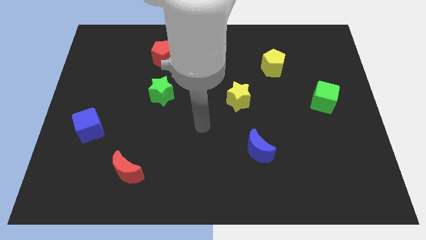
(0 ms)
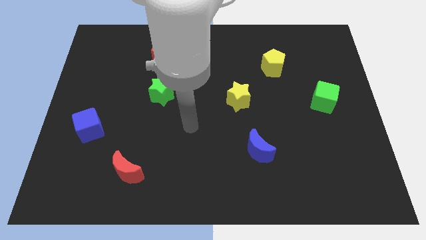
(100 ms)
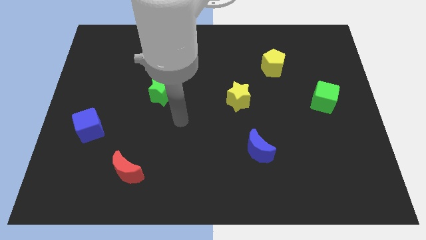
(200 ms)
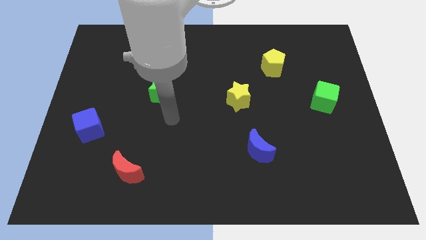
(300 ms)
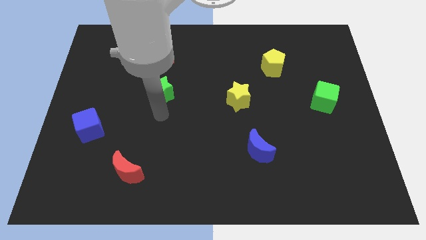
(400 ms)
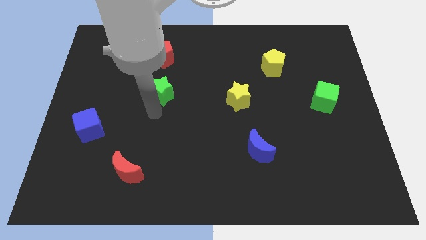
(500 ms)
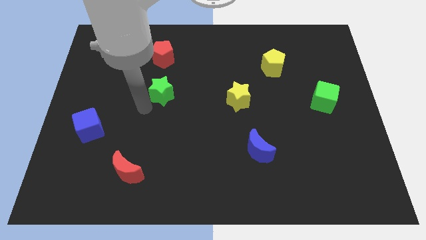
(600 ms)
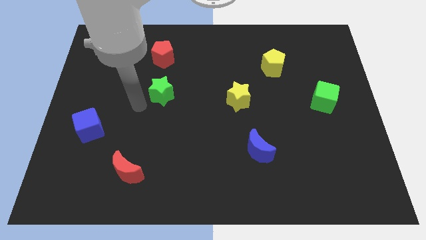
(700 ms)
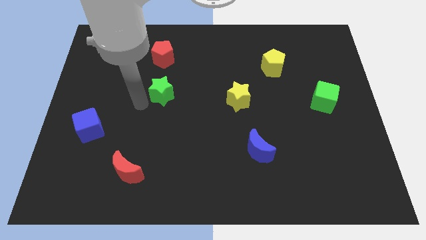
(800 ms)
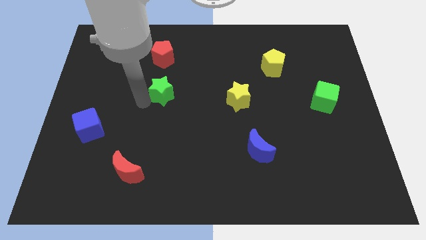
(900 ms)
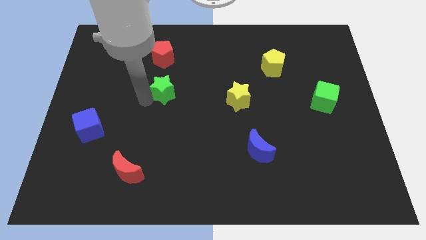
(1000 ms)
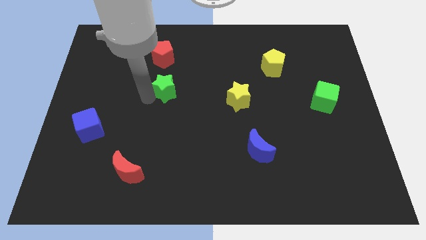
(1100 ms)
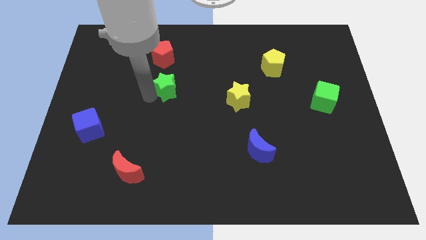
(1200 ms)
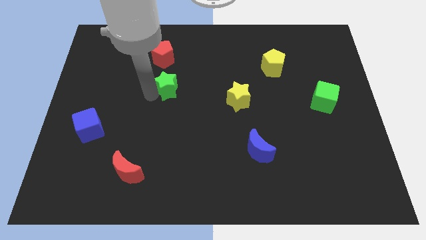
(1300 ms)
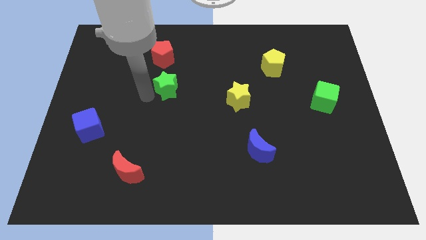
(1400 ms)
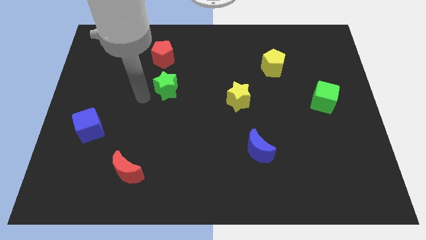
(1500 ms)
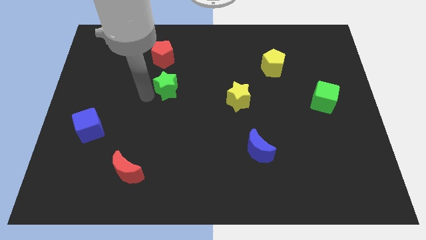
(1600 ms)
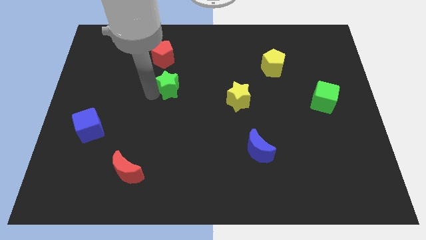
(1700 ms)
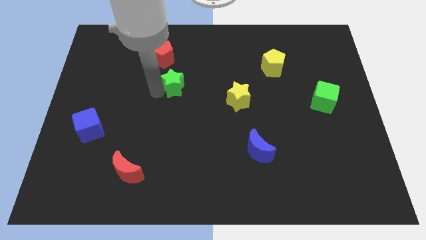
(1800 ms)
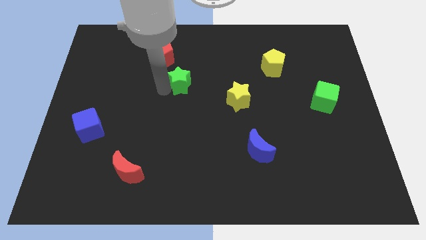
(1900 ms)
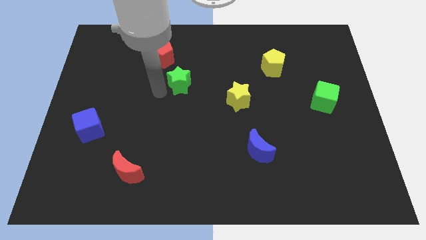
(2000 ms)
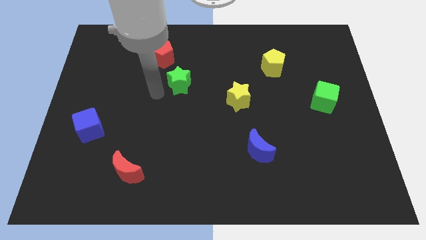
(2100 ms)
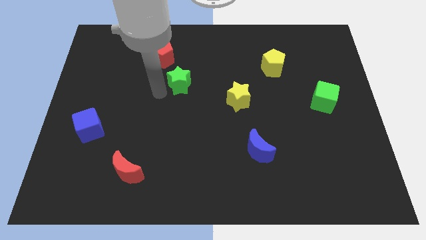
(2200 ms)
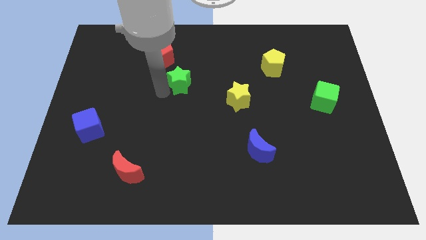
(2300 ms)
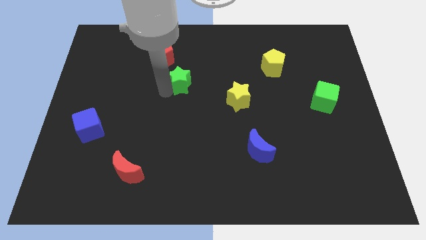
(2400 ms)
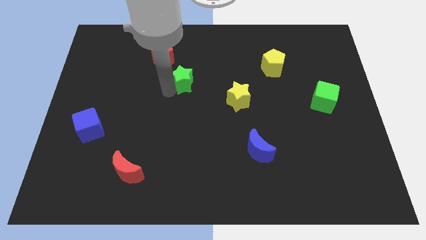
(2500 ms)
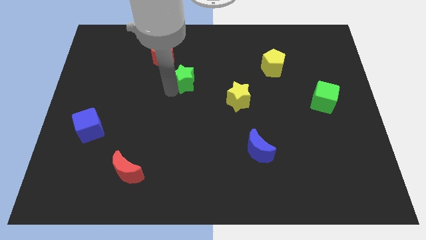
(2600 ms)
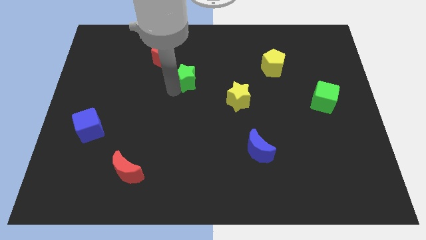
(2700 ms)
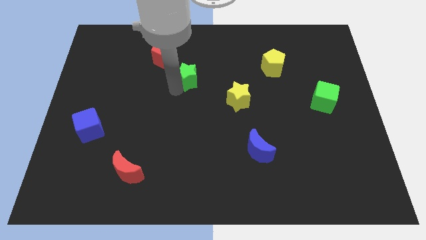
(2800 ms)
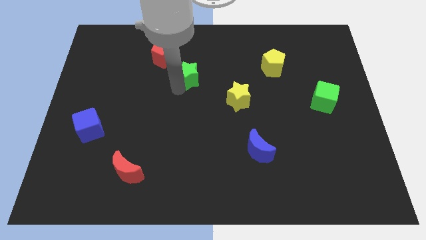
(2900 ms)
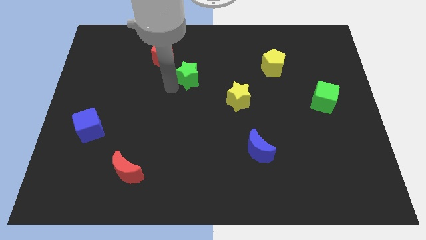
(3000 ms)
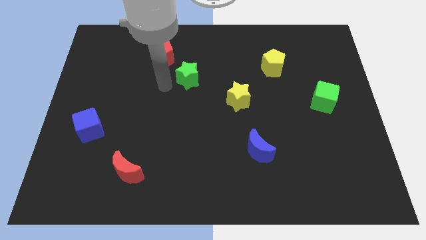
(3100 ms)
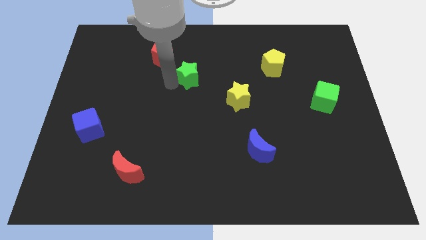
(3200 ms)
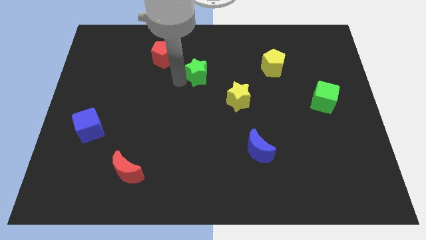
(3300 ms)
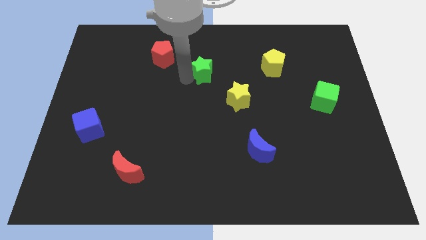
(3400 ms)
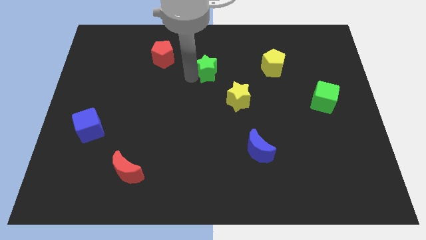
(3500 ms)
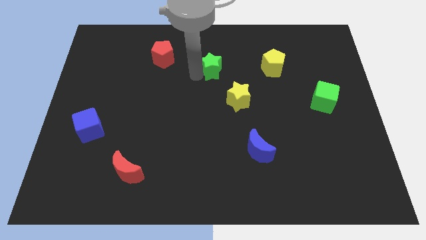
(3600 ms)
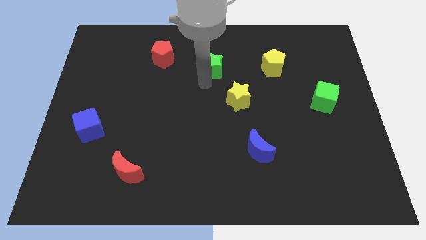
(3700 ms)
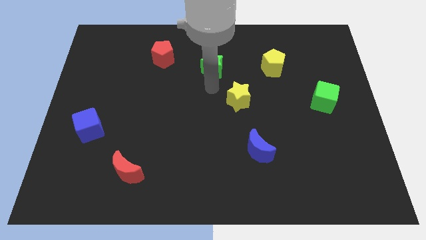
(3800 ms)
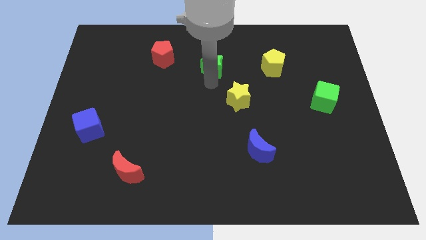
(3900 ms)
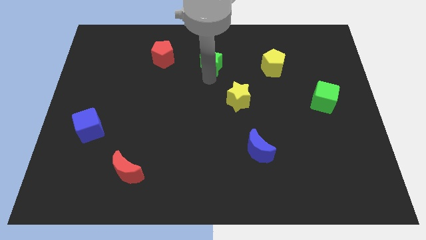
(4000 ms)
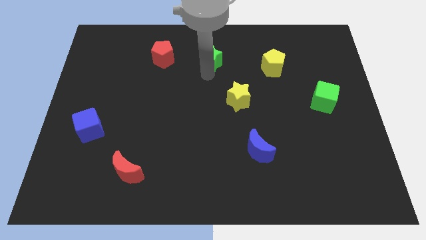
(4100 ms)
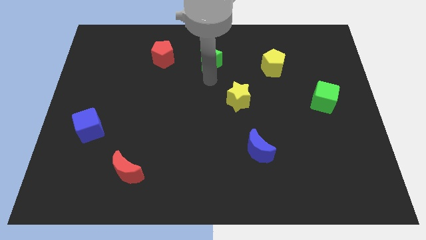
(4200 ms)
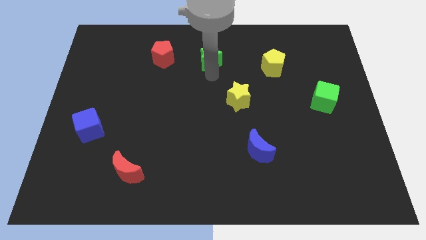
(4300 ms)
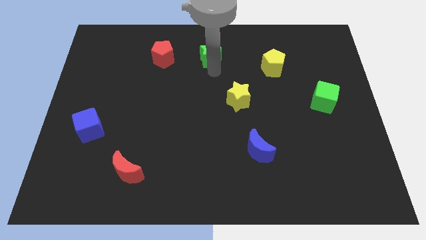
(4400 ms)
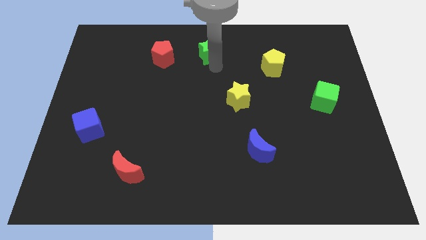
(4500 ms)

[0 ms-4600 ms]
move the green star to the top side

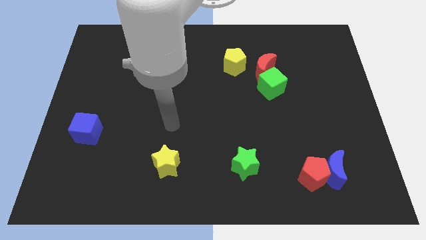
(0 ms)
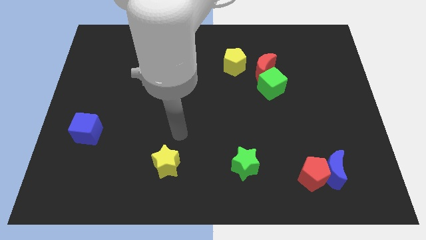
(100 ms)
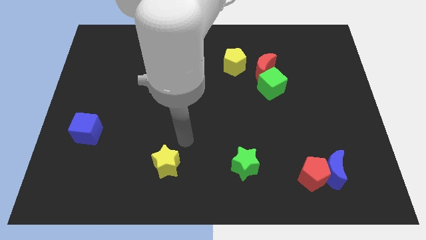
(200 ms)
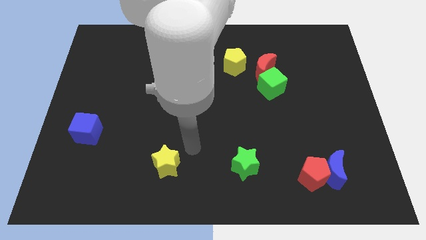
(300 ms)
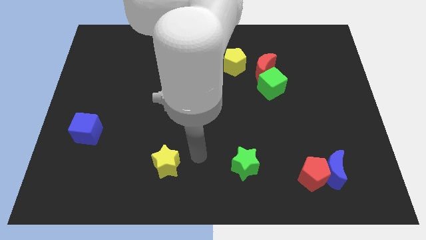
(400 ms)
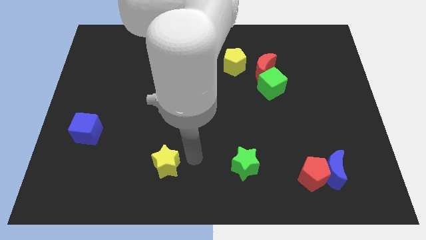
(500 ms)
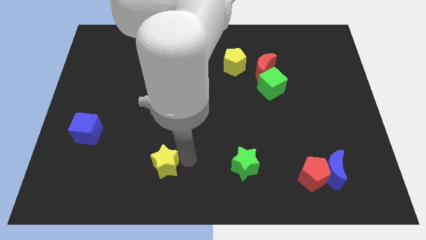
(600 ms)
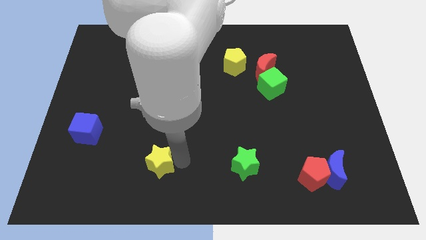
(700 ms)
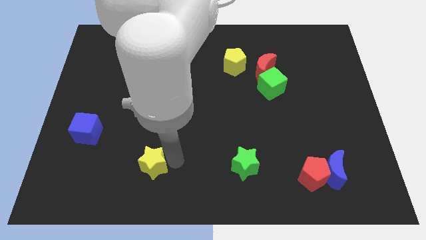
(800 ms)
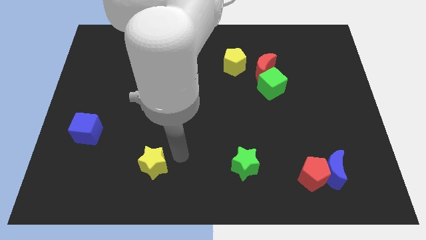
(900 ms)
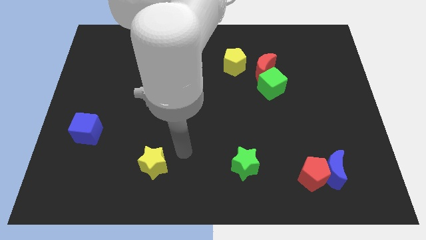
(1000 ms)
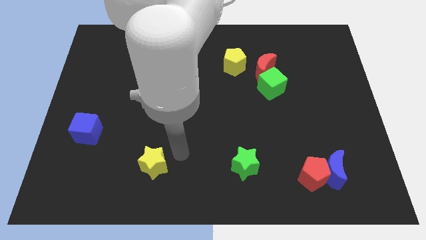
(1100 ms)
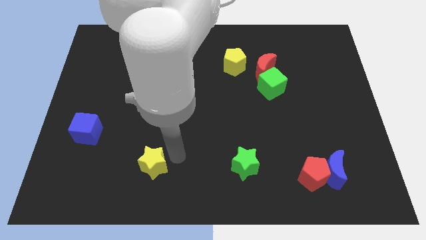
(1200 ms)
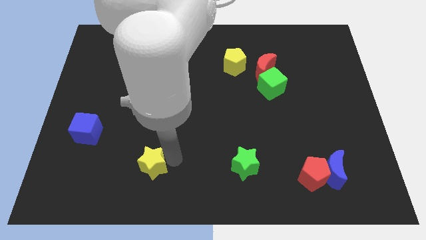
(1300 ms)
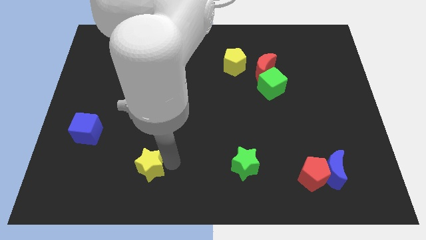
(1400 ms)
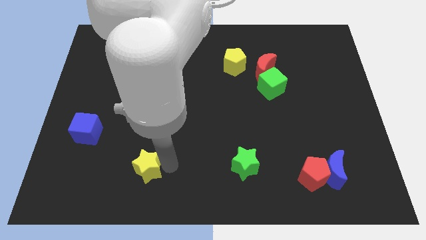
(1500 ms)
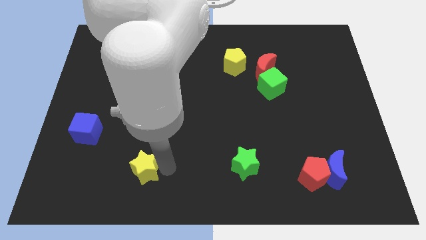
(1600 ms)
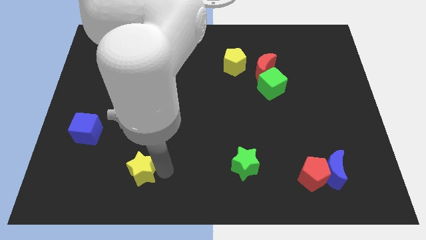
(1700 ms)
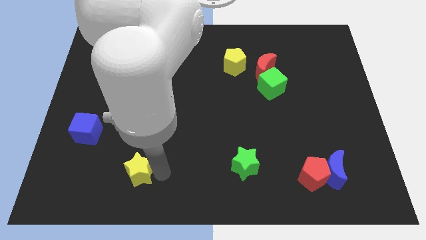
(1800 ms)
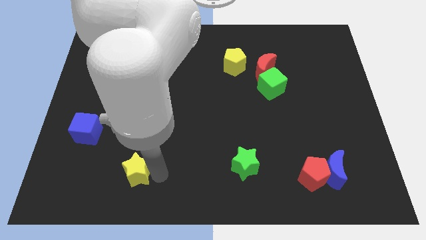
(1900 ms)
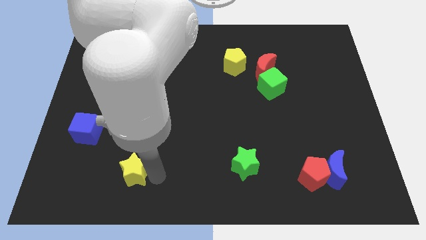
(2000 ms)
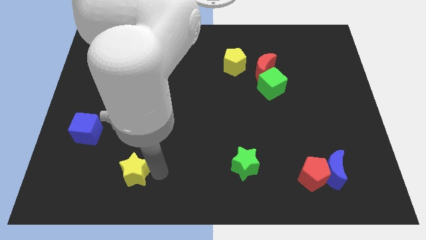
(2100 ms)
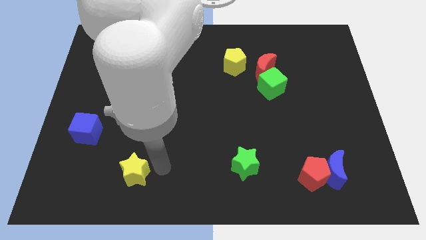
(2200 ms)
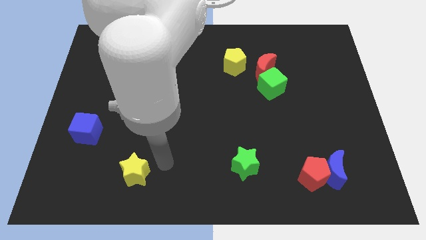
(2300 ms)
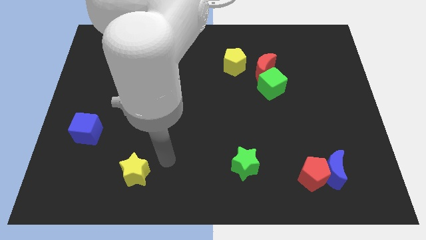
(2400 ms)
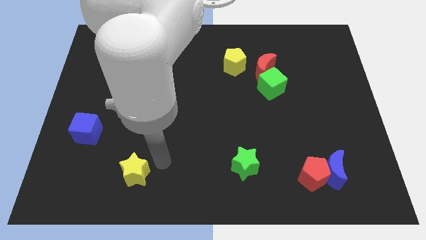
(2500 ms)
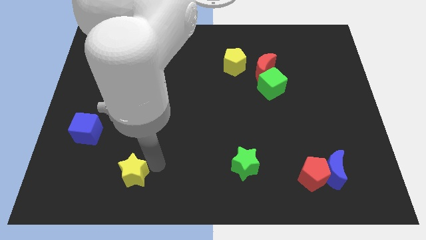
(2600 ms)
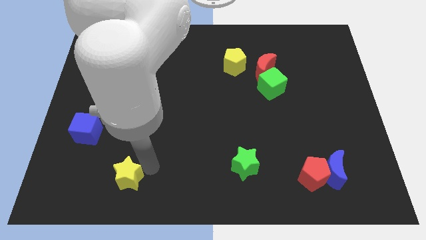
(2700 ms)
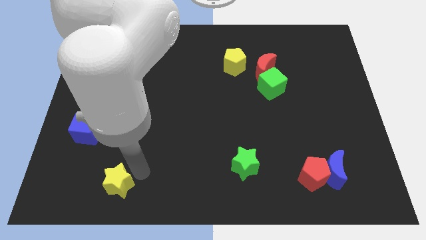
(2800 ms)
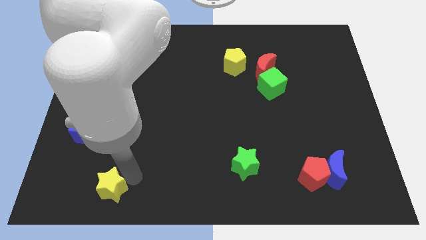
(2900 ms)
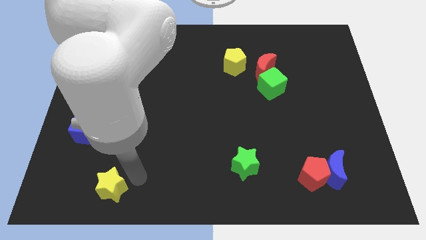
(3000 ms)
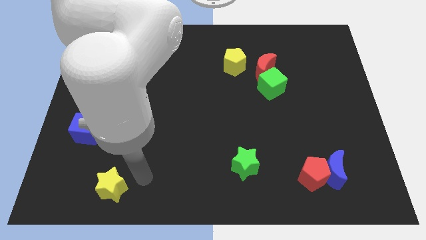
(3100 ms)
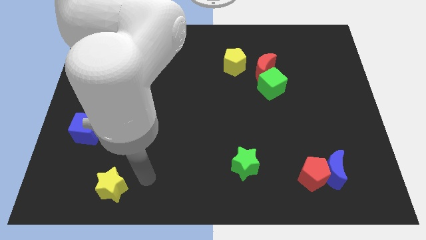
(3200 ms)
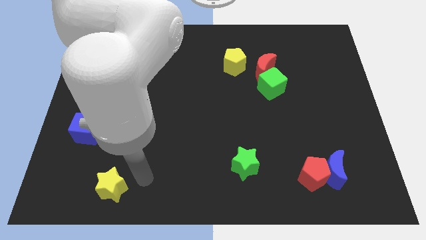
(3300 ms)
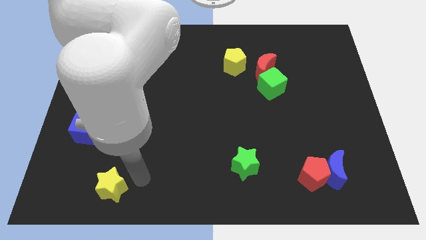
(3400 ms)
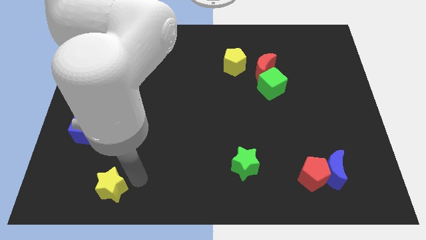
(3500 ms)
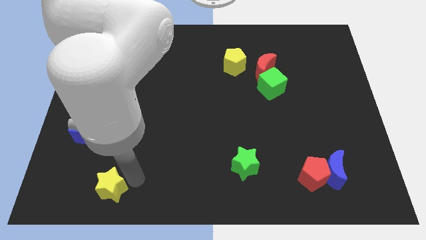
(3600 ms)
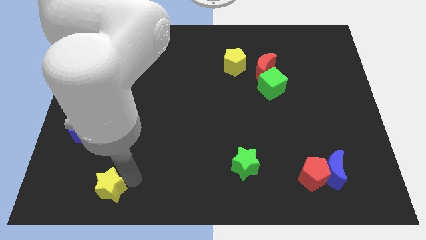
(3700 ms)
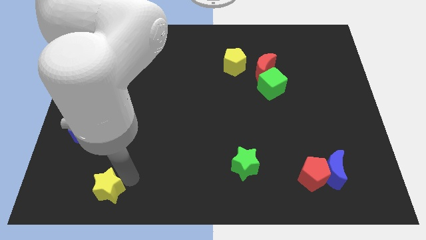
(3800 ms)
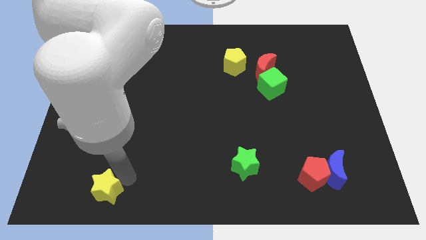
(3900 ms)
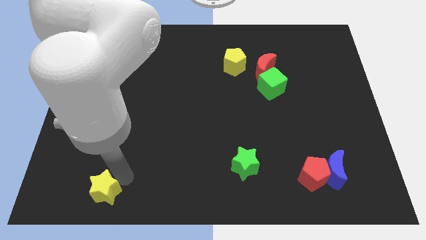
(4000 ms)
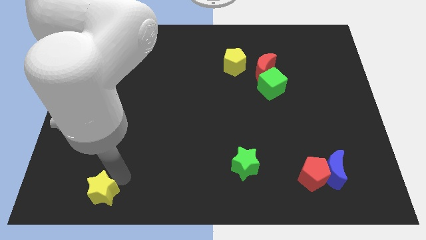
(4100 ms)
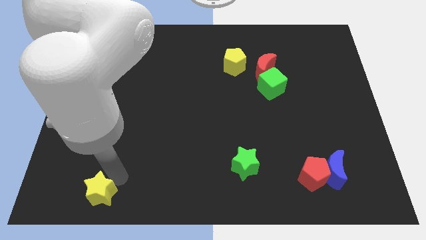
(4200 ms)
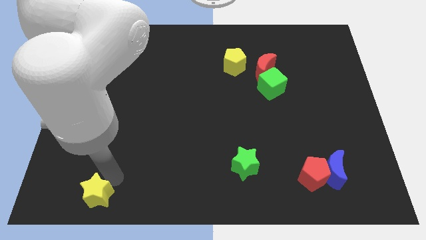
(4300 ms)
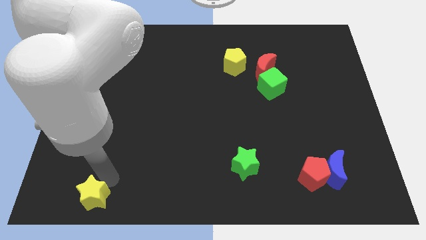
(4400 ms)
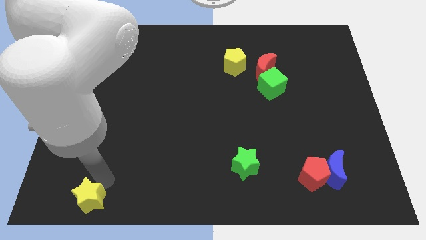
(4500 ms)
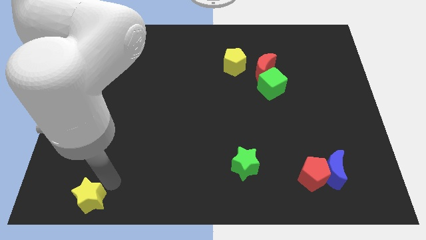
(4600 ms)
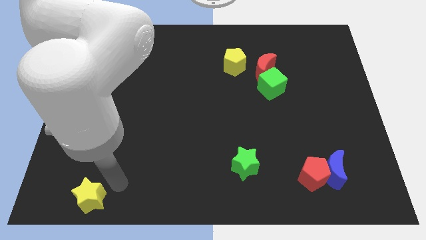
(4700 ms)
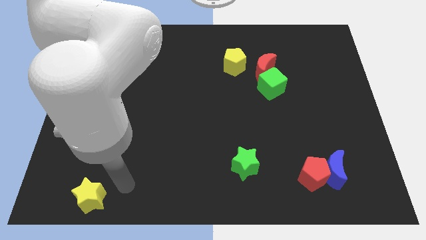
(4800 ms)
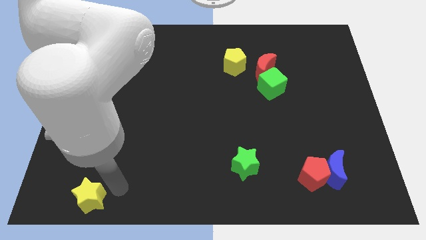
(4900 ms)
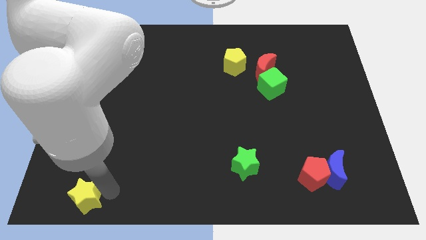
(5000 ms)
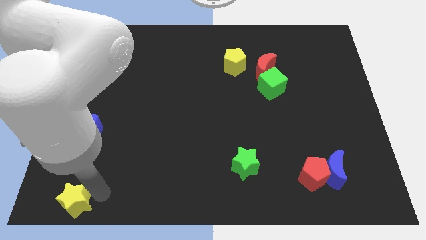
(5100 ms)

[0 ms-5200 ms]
slide the yellow star to the bottom left corner
